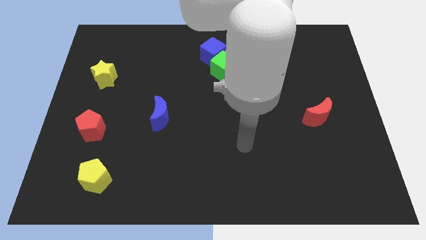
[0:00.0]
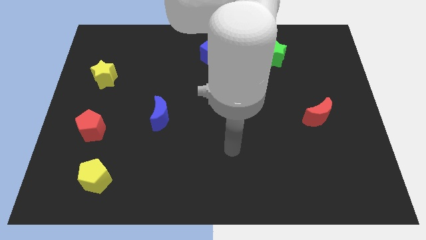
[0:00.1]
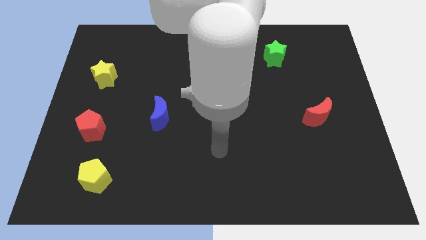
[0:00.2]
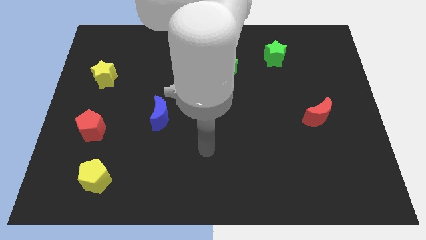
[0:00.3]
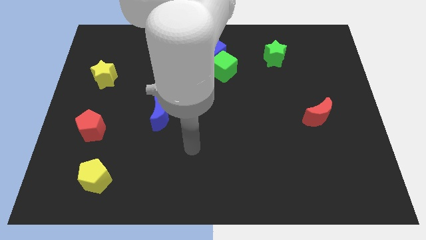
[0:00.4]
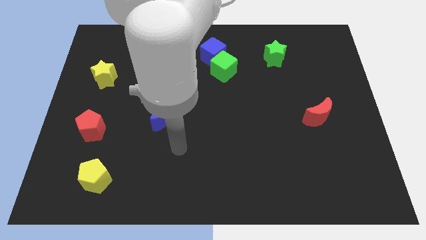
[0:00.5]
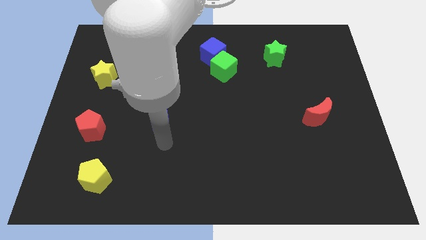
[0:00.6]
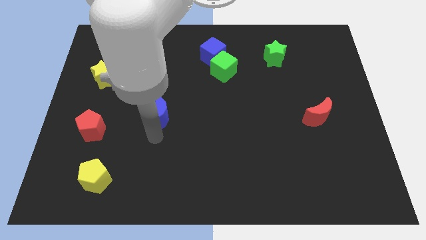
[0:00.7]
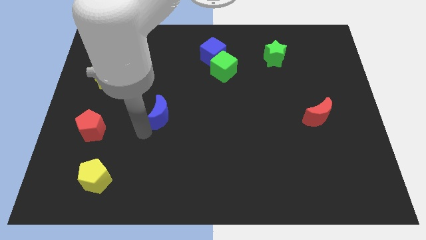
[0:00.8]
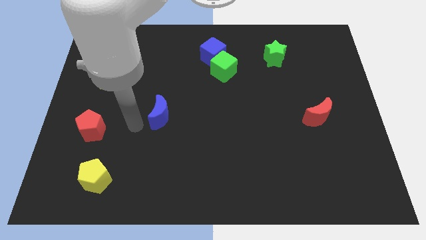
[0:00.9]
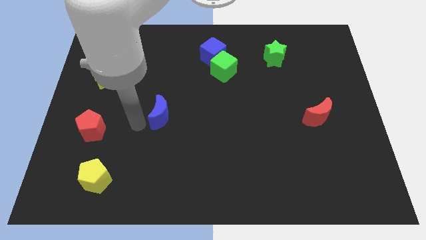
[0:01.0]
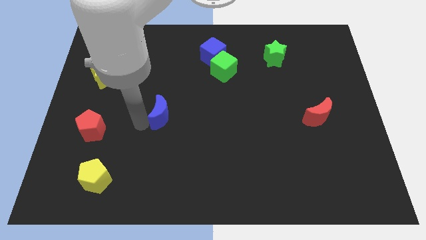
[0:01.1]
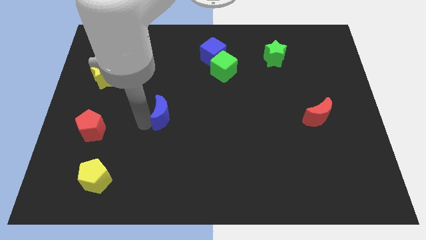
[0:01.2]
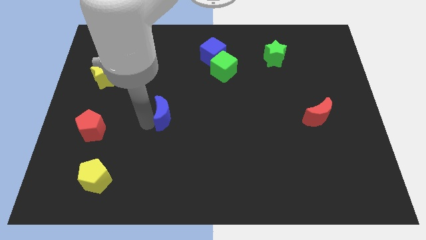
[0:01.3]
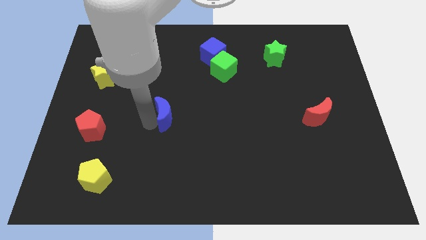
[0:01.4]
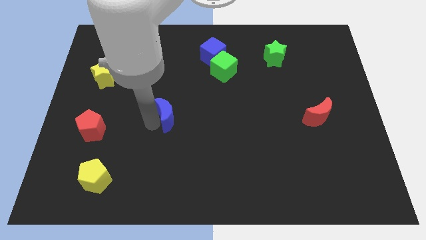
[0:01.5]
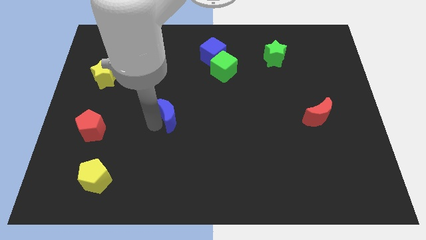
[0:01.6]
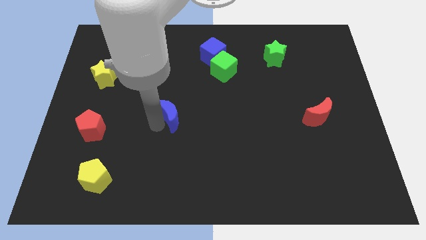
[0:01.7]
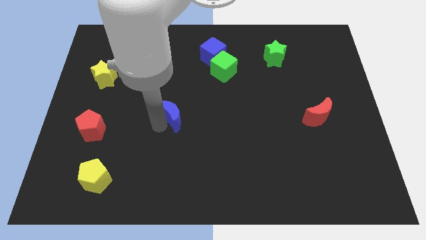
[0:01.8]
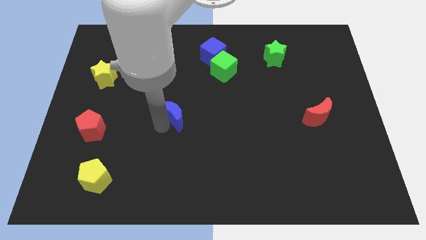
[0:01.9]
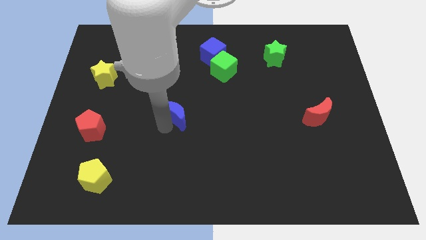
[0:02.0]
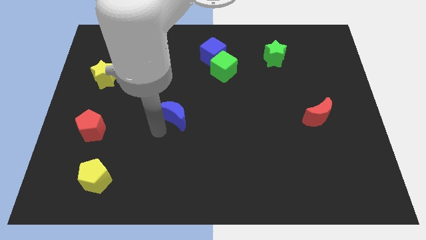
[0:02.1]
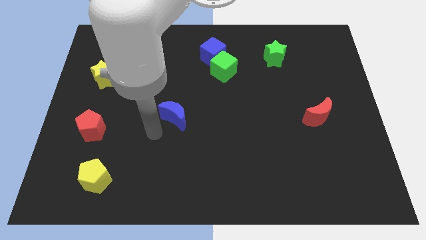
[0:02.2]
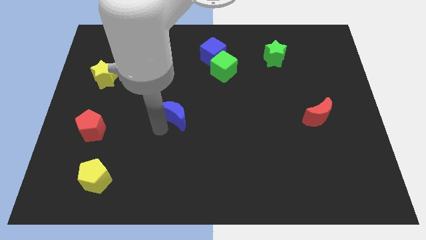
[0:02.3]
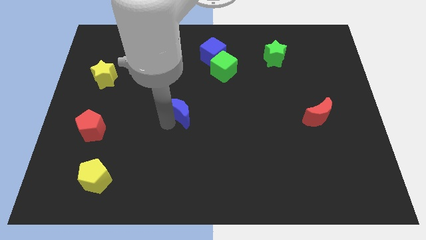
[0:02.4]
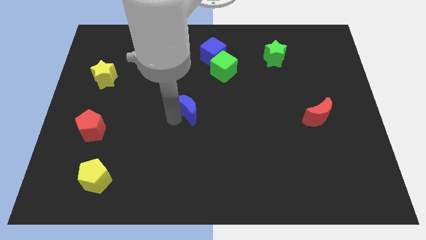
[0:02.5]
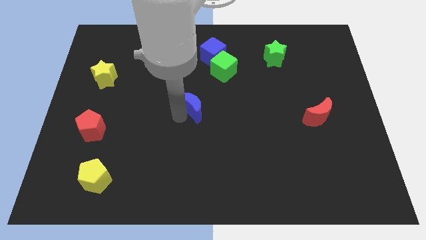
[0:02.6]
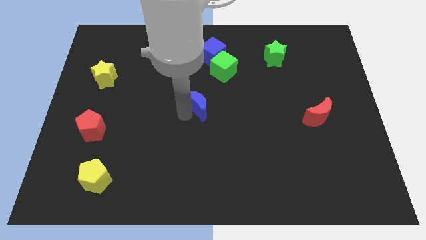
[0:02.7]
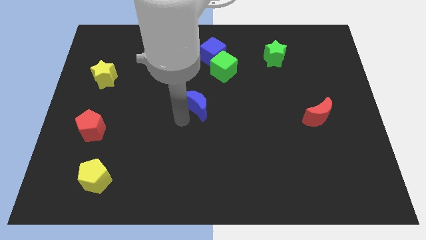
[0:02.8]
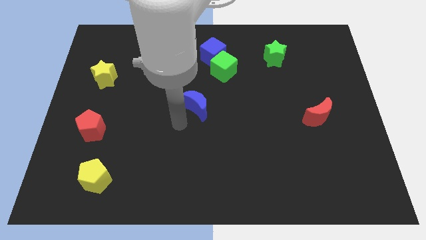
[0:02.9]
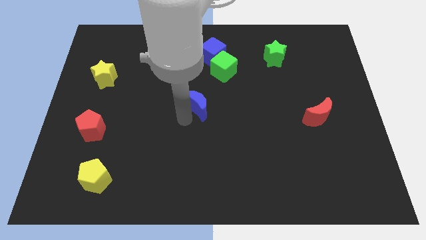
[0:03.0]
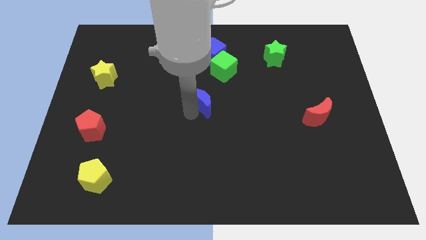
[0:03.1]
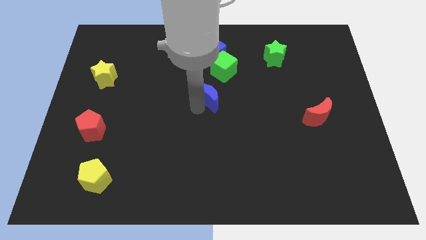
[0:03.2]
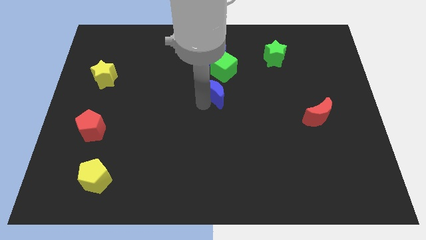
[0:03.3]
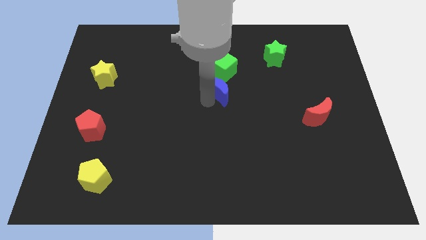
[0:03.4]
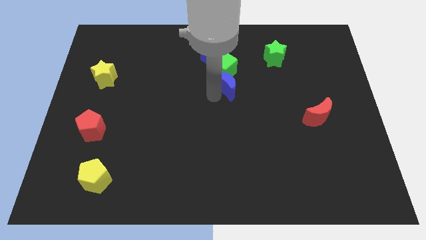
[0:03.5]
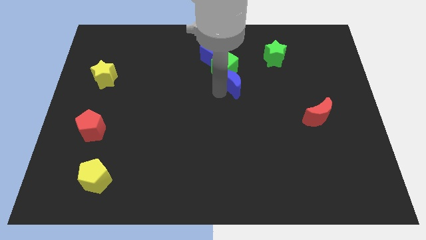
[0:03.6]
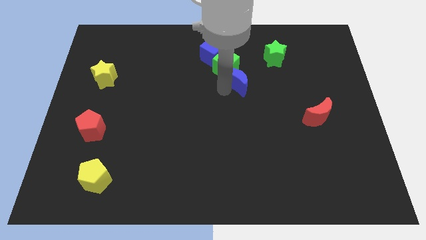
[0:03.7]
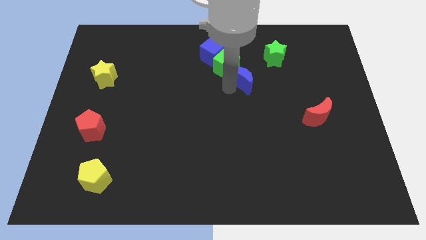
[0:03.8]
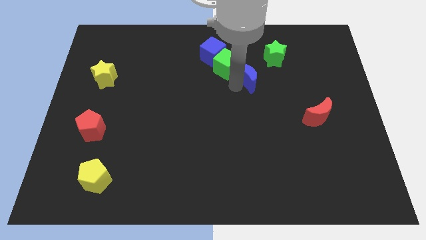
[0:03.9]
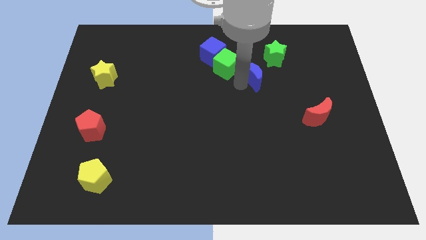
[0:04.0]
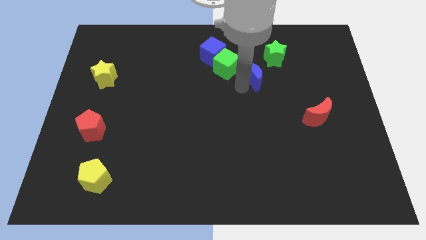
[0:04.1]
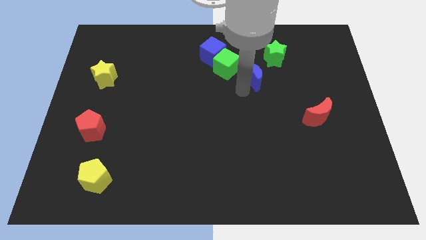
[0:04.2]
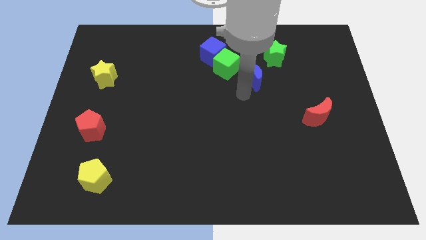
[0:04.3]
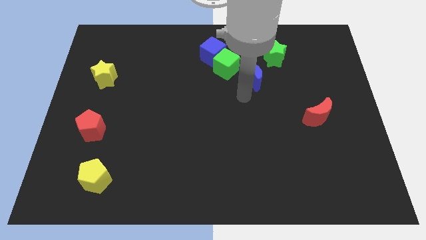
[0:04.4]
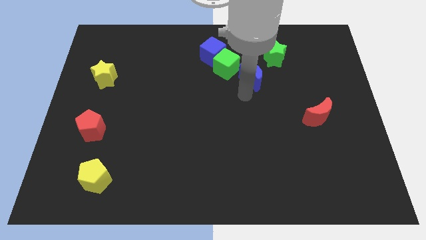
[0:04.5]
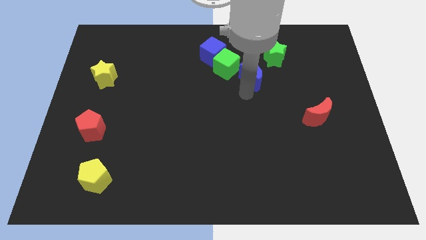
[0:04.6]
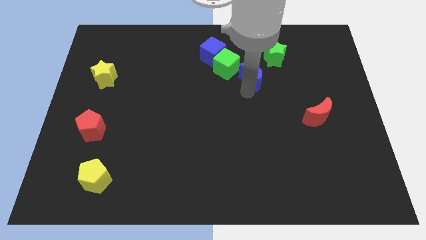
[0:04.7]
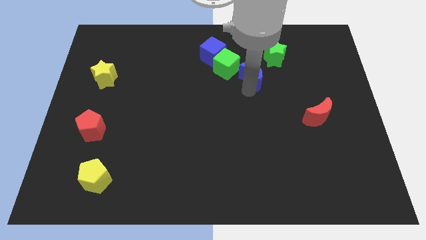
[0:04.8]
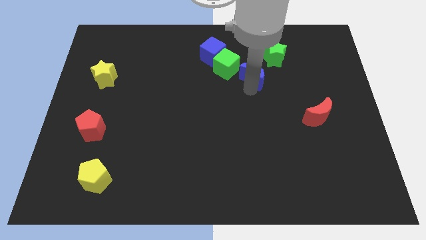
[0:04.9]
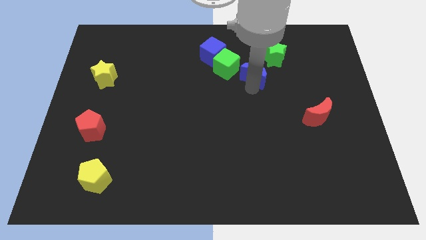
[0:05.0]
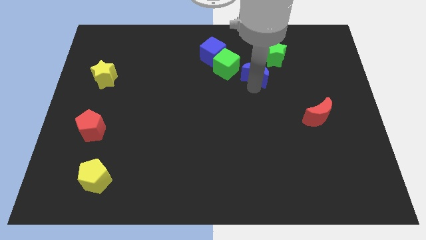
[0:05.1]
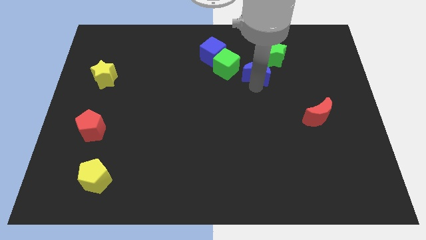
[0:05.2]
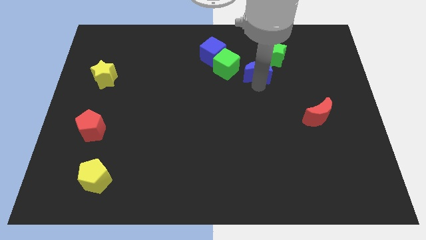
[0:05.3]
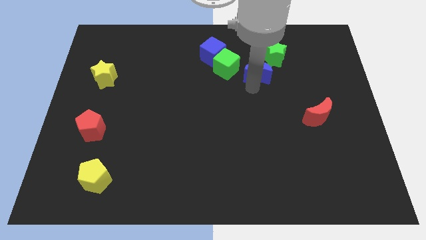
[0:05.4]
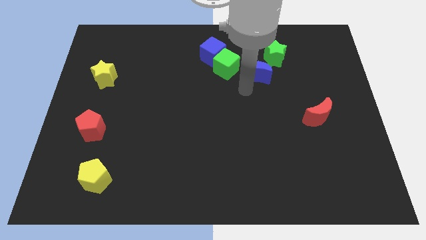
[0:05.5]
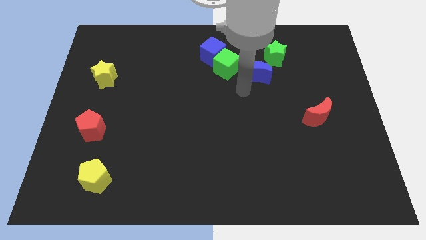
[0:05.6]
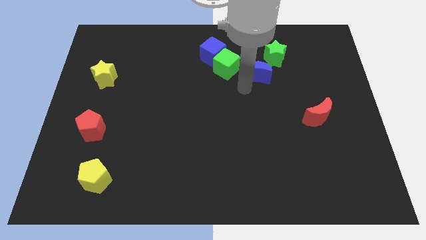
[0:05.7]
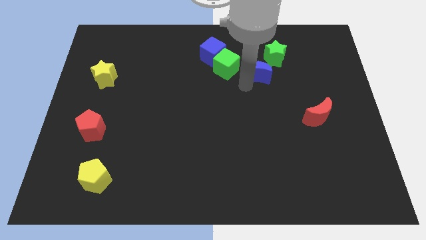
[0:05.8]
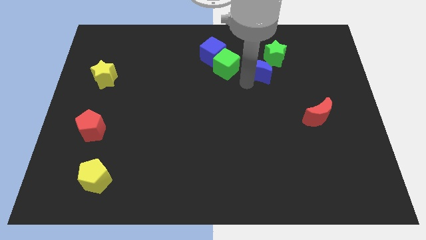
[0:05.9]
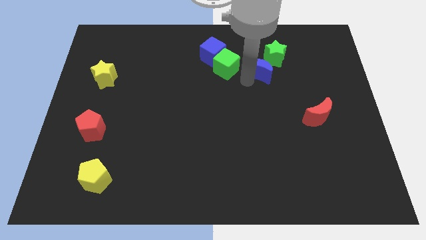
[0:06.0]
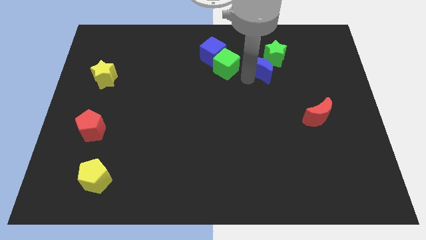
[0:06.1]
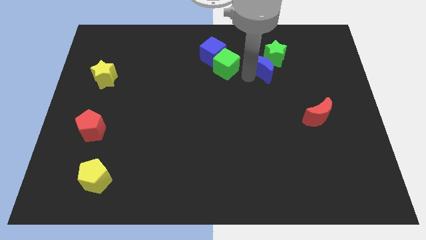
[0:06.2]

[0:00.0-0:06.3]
slide the blue moon towards the green star
